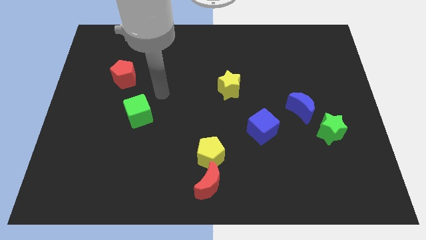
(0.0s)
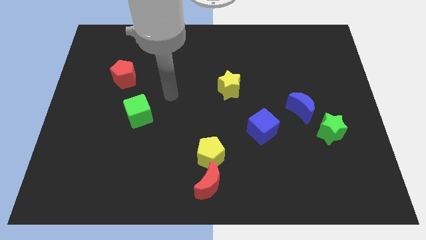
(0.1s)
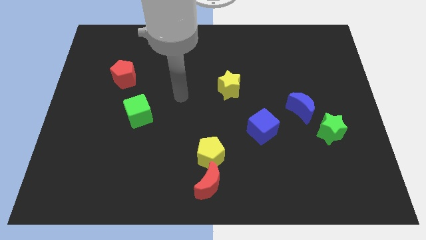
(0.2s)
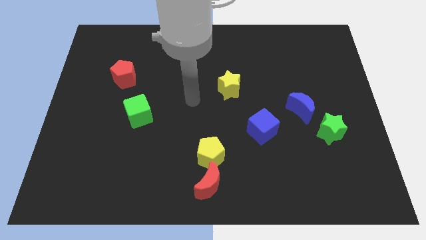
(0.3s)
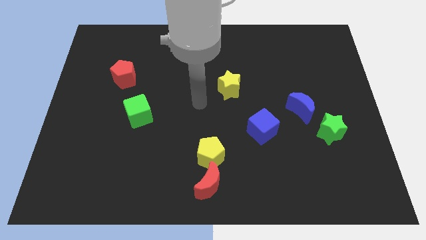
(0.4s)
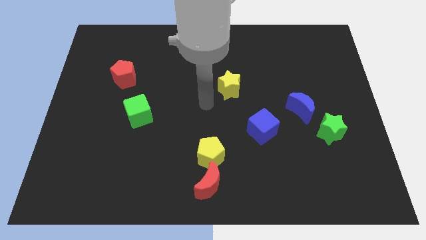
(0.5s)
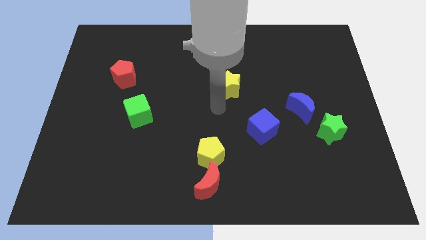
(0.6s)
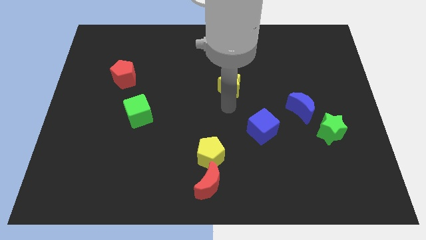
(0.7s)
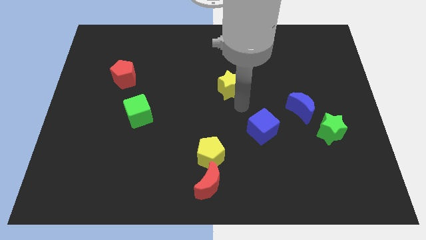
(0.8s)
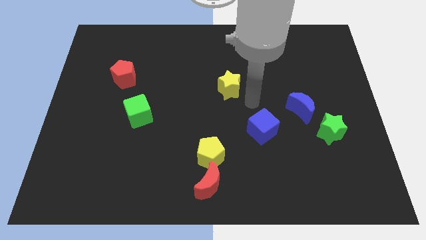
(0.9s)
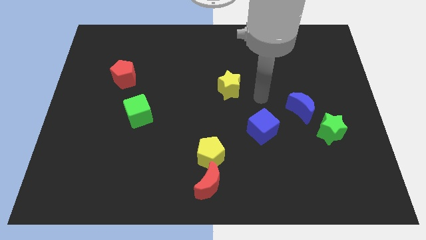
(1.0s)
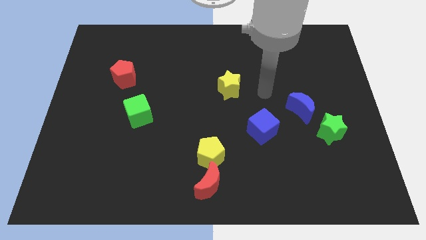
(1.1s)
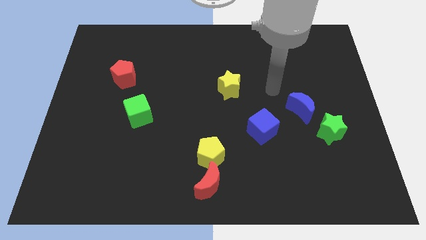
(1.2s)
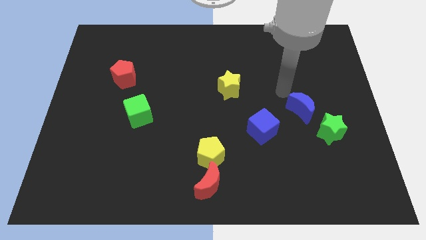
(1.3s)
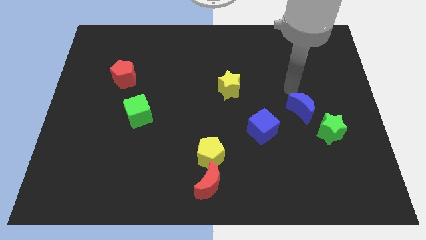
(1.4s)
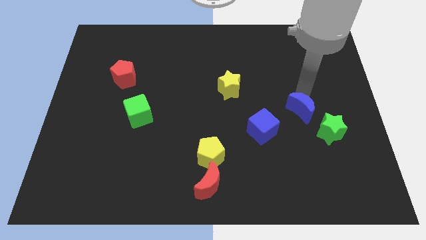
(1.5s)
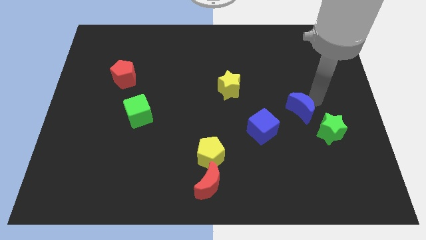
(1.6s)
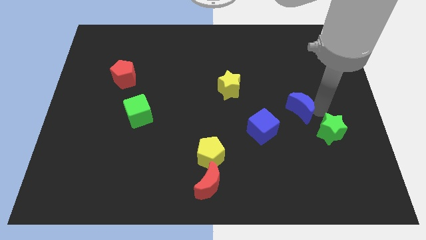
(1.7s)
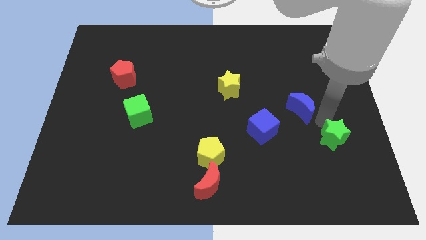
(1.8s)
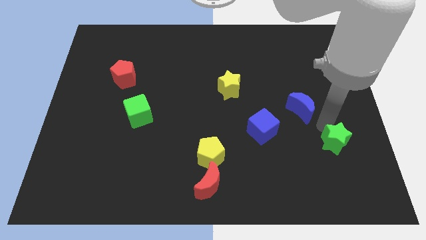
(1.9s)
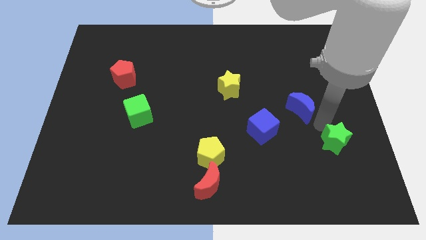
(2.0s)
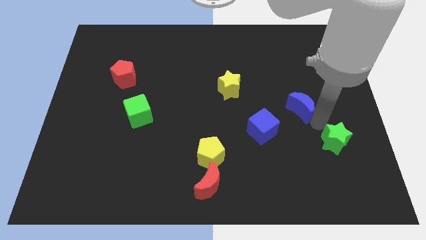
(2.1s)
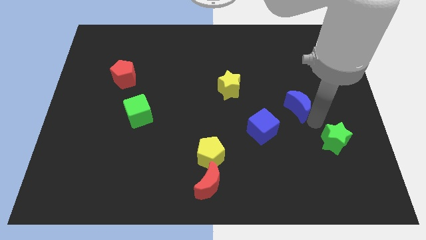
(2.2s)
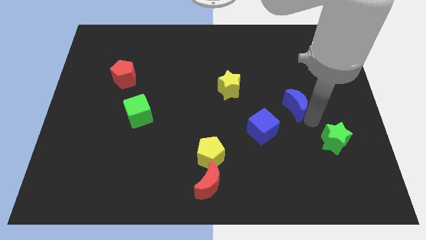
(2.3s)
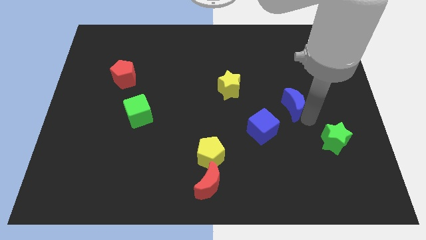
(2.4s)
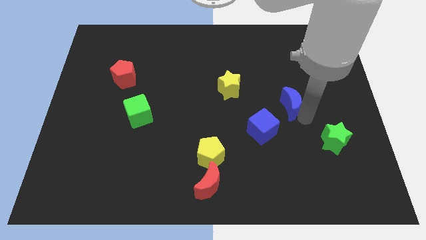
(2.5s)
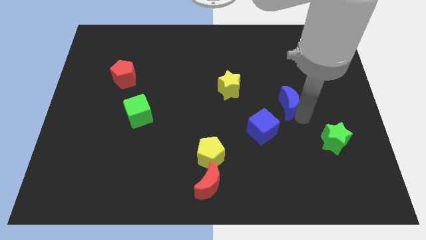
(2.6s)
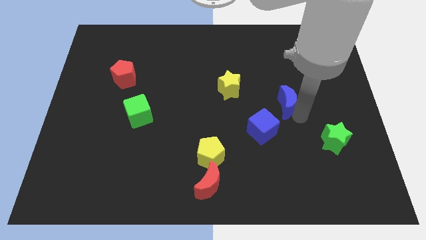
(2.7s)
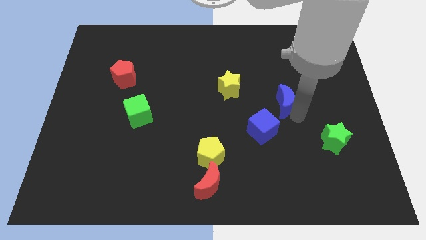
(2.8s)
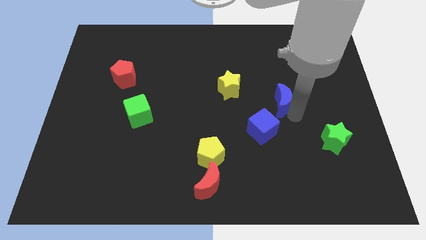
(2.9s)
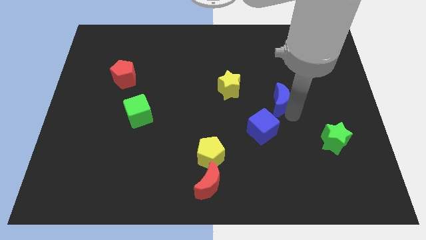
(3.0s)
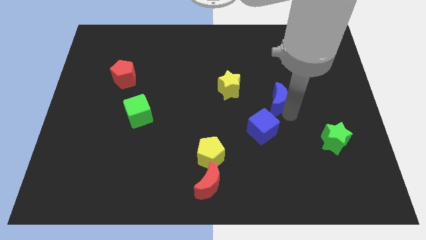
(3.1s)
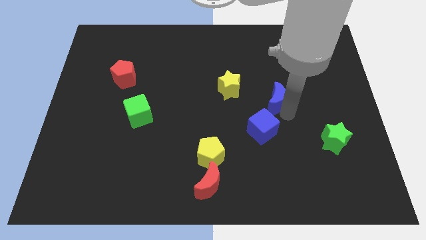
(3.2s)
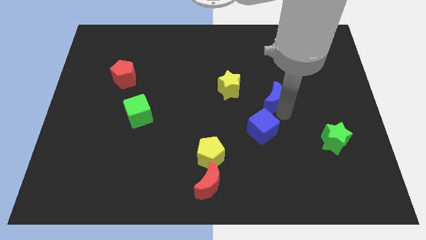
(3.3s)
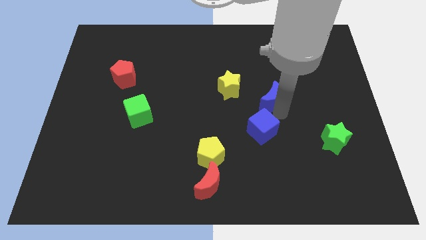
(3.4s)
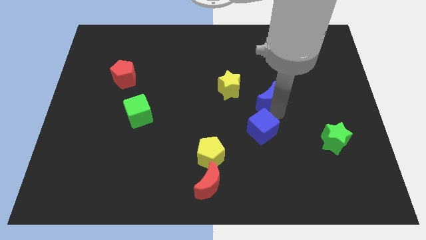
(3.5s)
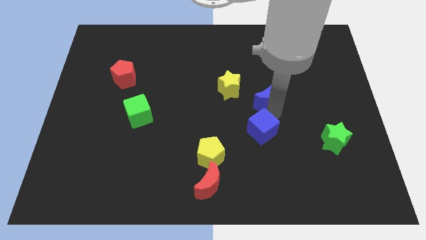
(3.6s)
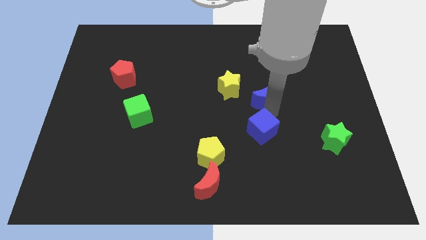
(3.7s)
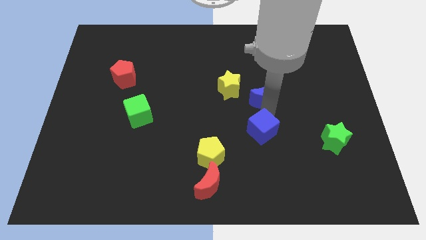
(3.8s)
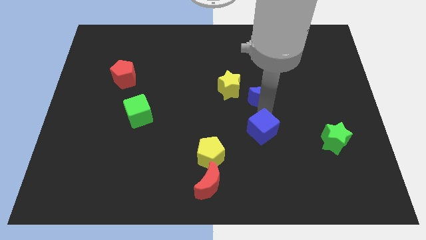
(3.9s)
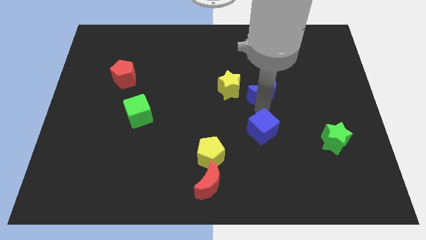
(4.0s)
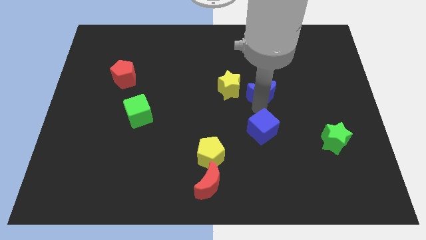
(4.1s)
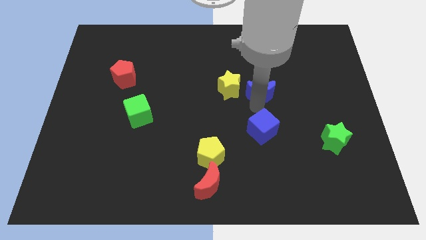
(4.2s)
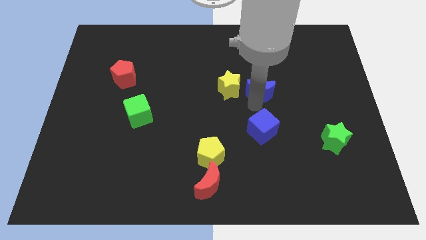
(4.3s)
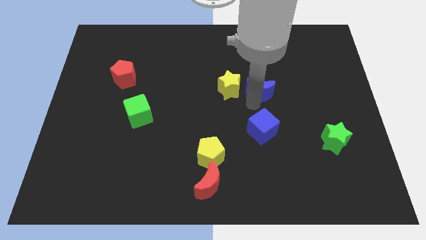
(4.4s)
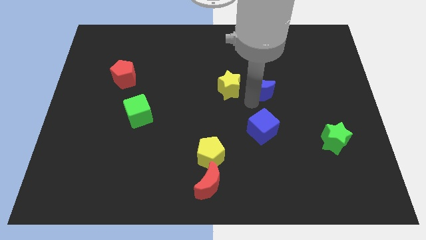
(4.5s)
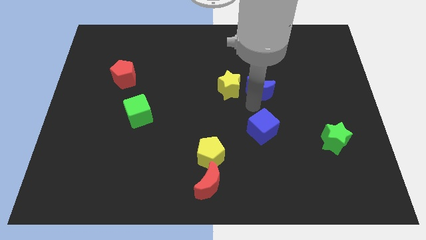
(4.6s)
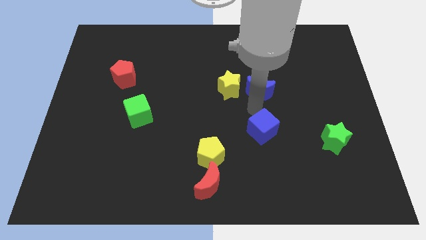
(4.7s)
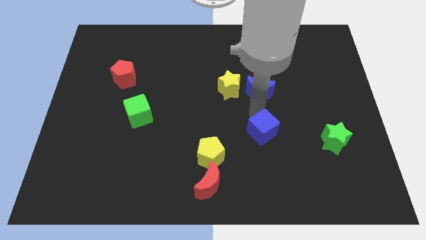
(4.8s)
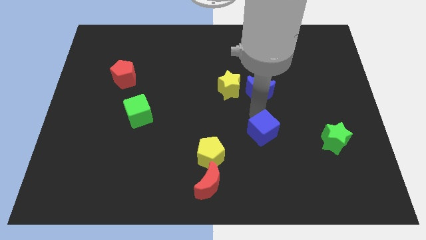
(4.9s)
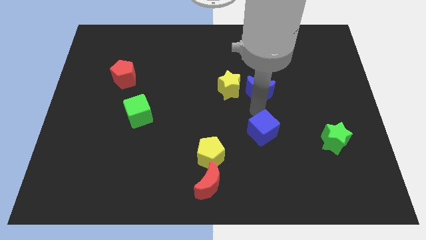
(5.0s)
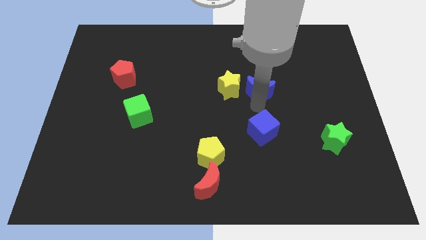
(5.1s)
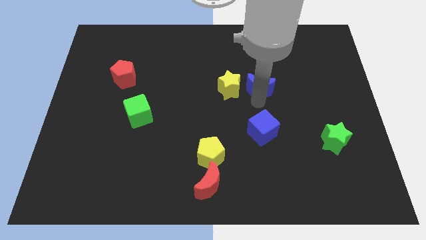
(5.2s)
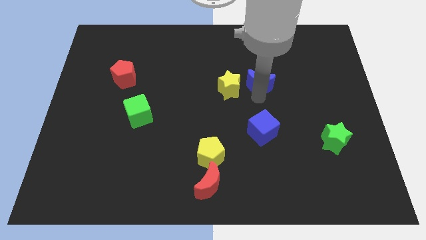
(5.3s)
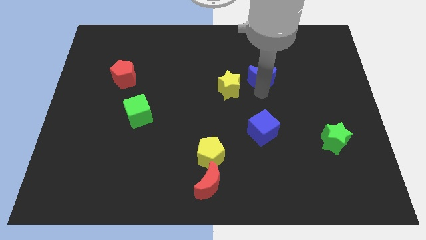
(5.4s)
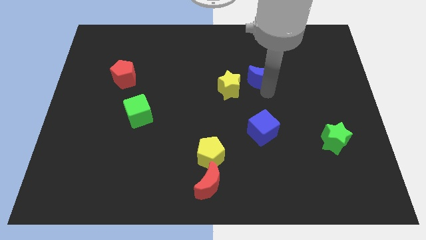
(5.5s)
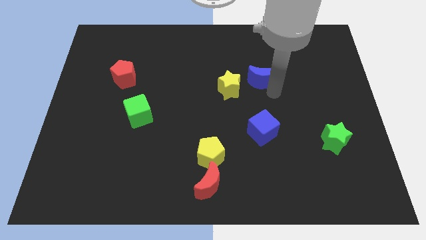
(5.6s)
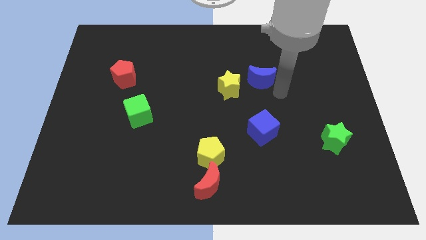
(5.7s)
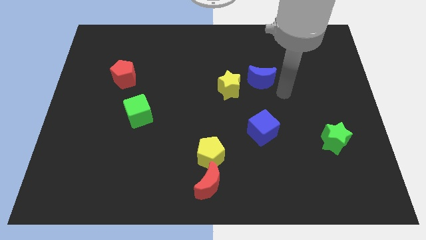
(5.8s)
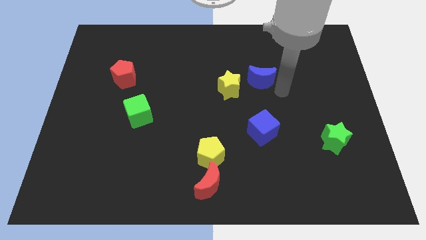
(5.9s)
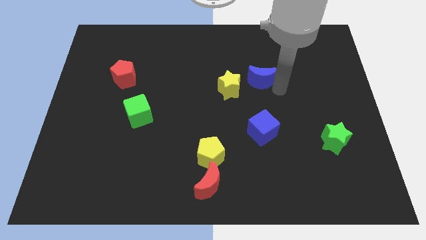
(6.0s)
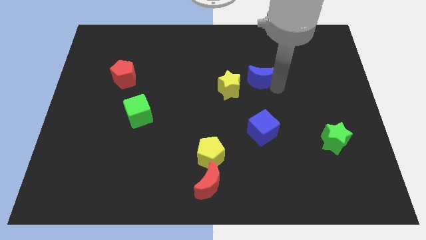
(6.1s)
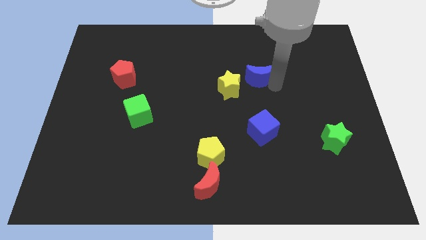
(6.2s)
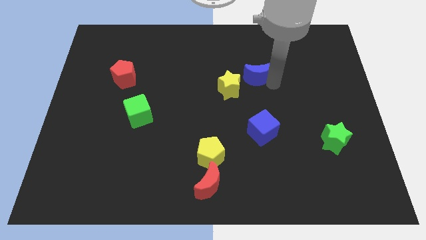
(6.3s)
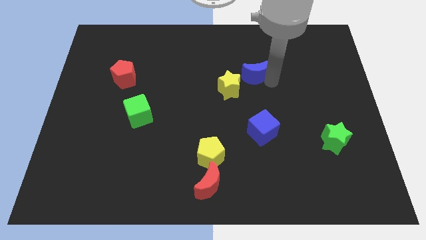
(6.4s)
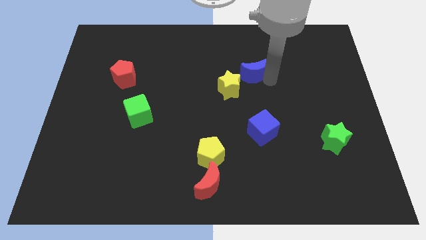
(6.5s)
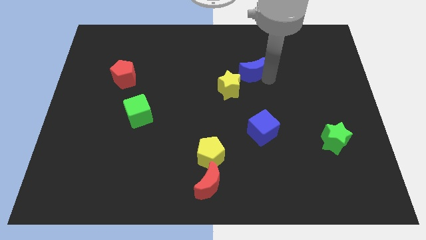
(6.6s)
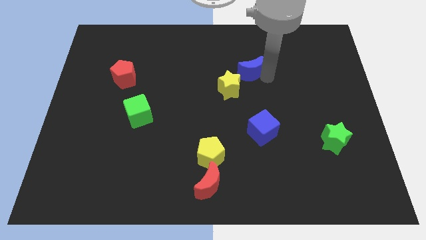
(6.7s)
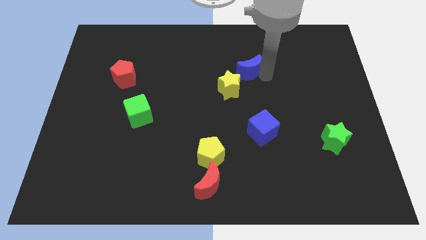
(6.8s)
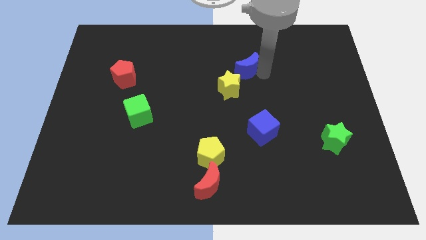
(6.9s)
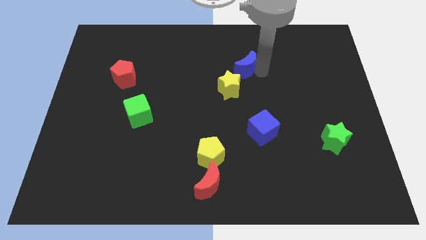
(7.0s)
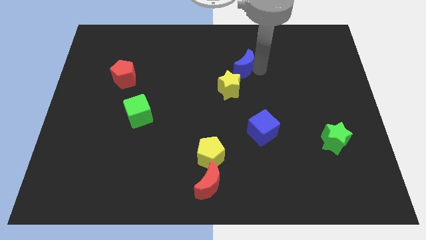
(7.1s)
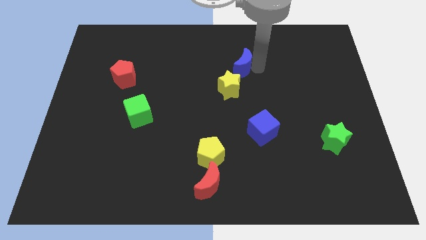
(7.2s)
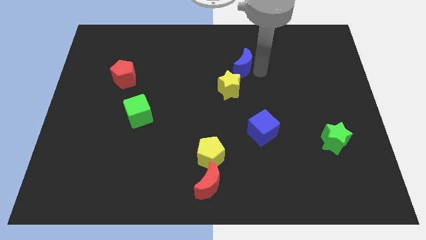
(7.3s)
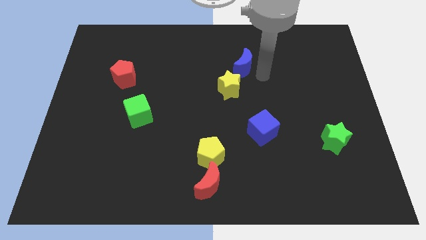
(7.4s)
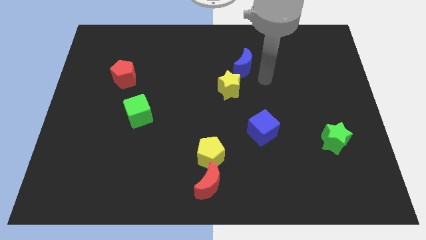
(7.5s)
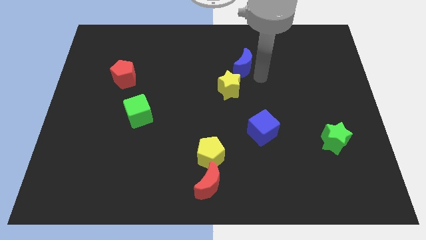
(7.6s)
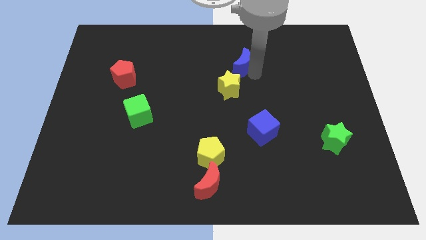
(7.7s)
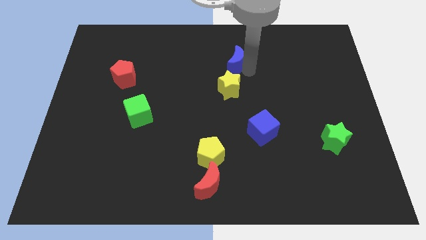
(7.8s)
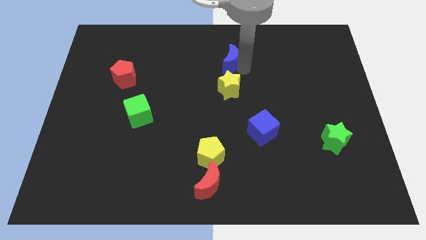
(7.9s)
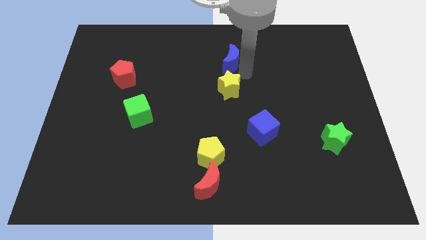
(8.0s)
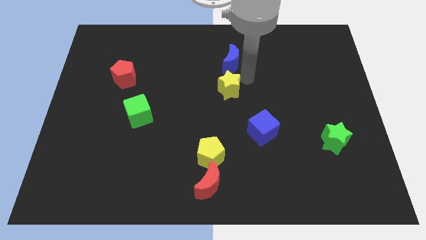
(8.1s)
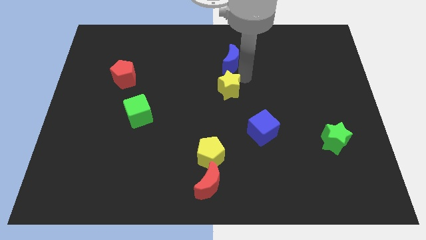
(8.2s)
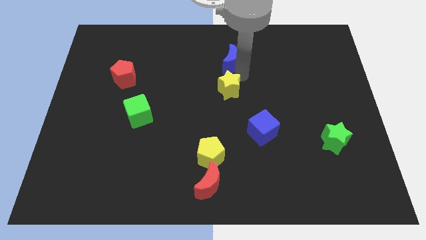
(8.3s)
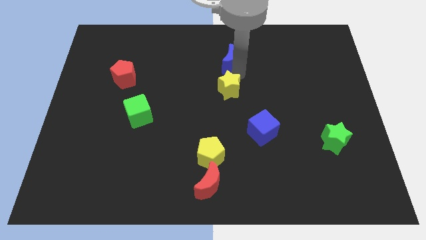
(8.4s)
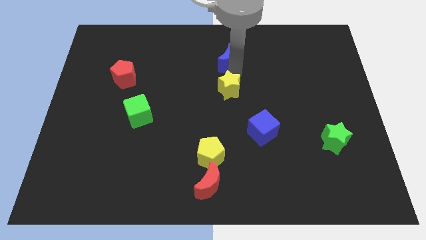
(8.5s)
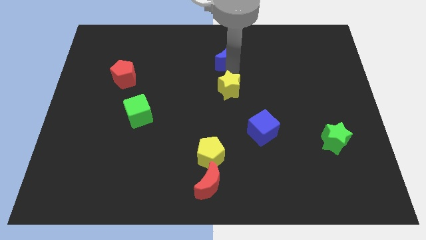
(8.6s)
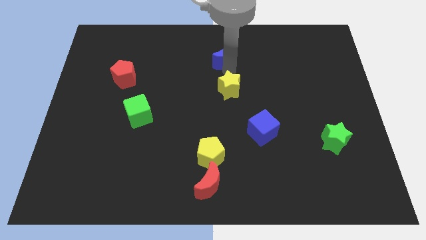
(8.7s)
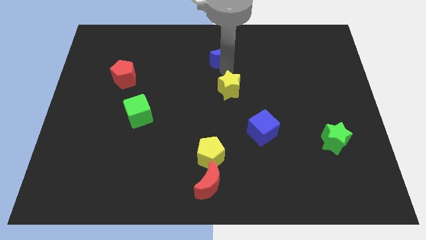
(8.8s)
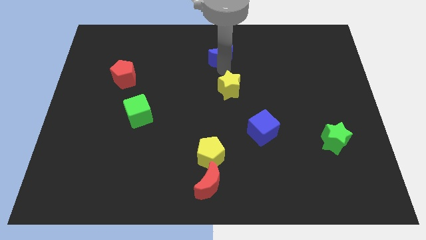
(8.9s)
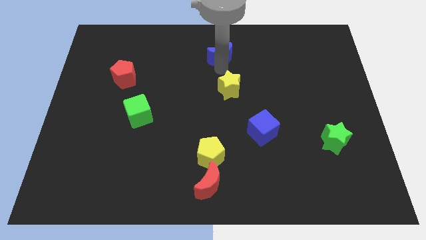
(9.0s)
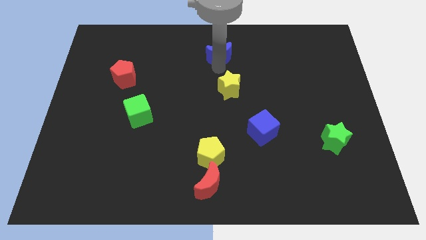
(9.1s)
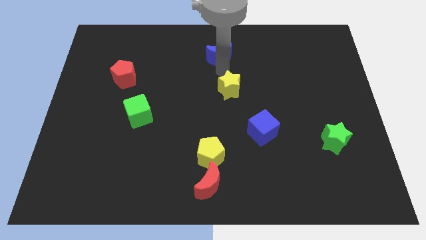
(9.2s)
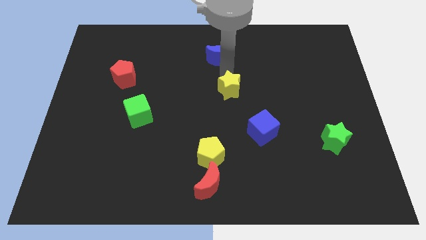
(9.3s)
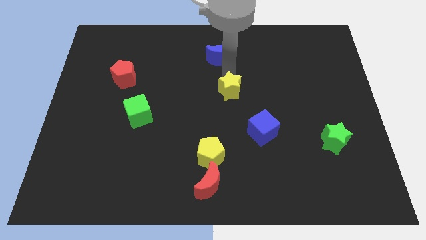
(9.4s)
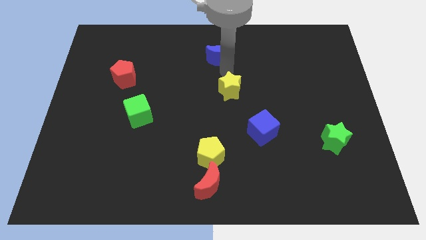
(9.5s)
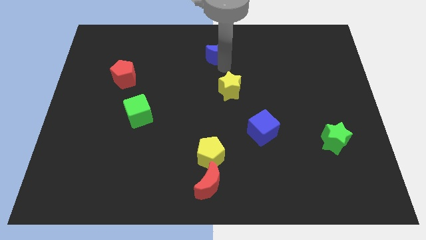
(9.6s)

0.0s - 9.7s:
put the blue moon to the top
